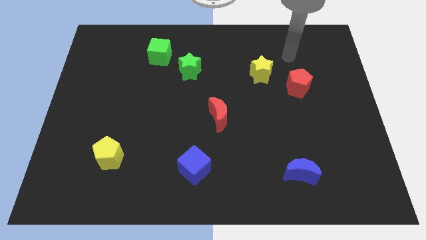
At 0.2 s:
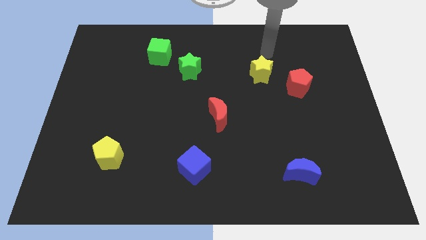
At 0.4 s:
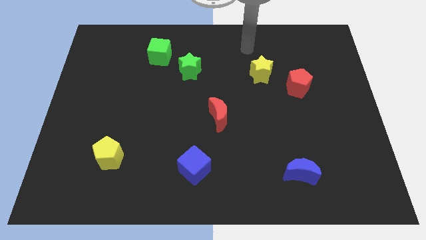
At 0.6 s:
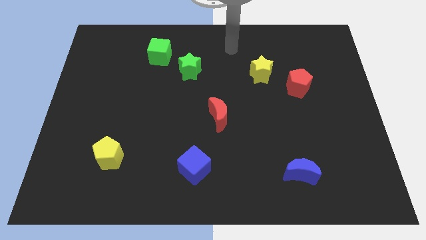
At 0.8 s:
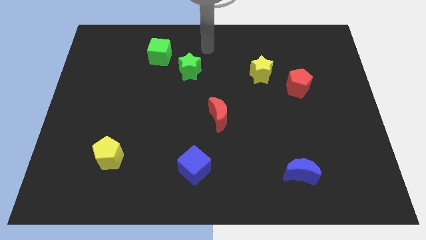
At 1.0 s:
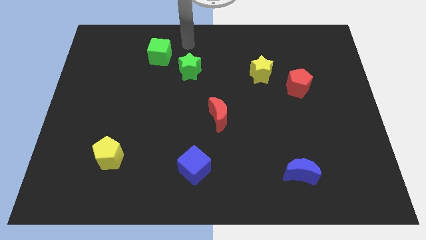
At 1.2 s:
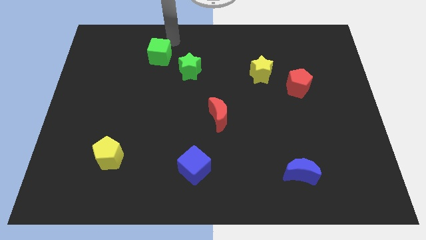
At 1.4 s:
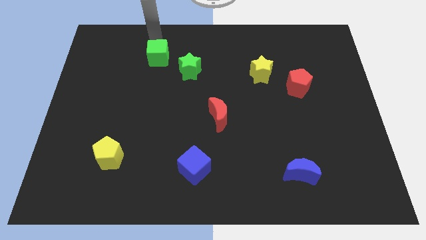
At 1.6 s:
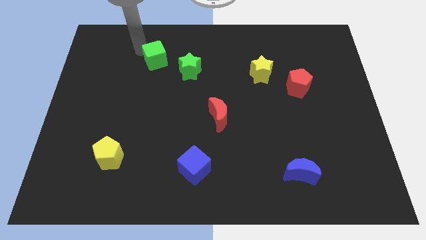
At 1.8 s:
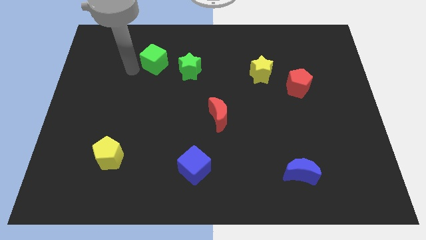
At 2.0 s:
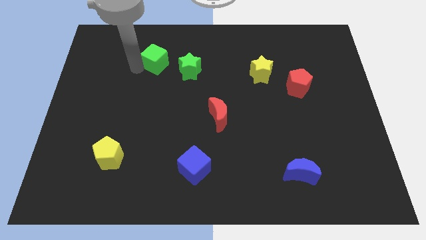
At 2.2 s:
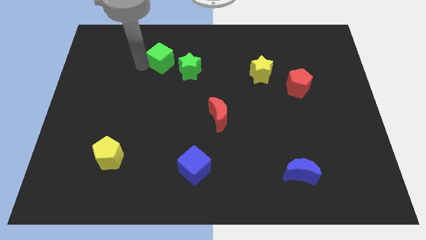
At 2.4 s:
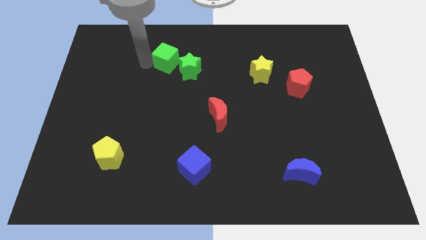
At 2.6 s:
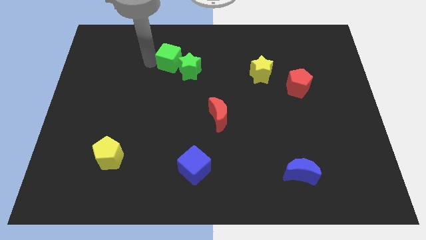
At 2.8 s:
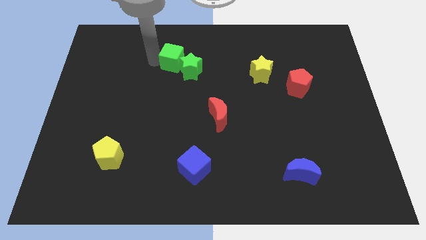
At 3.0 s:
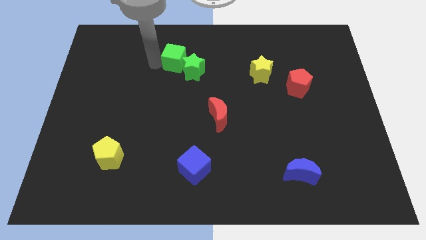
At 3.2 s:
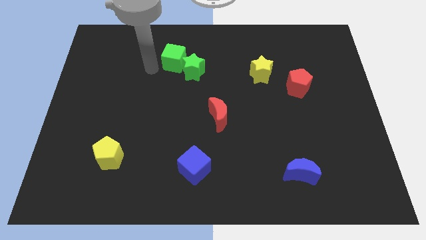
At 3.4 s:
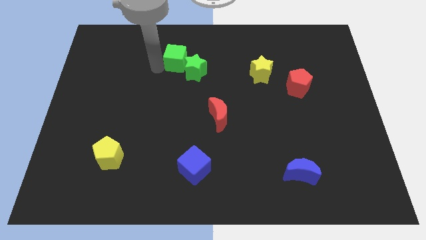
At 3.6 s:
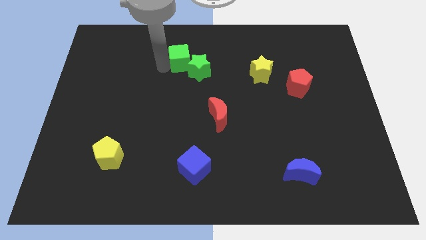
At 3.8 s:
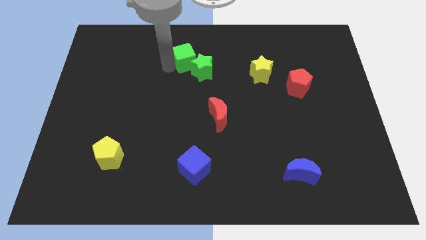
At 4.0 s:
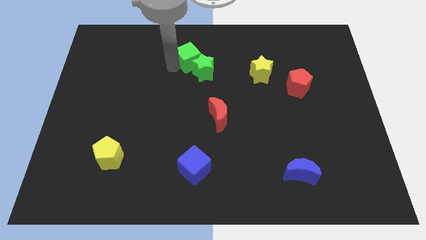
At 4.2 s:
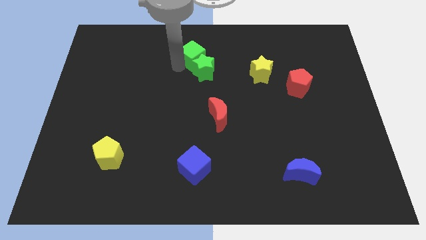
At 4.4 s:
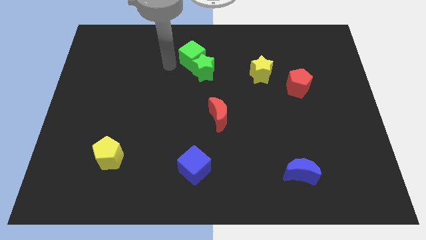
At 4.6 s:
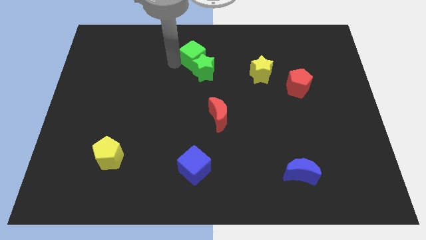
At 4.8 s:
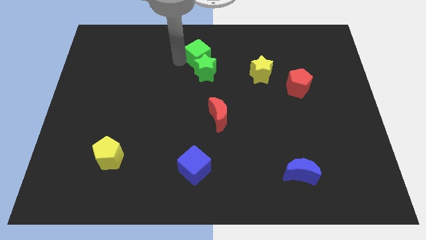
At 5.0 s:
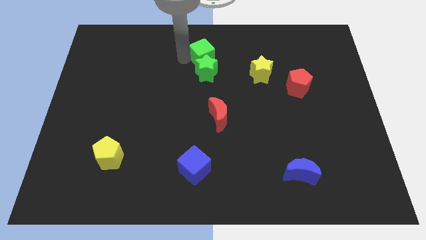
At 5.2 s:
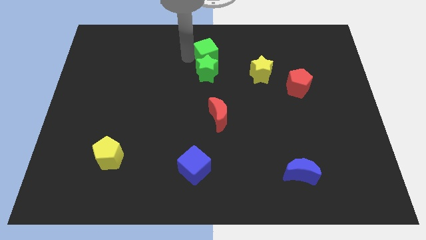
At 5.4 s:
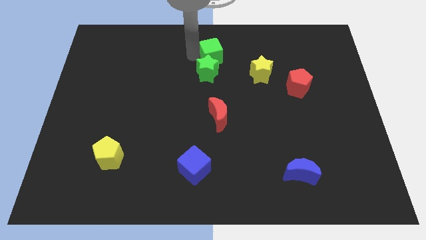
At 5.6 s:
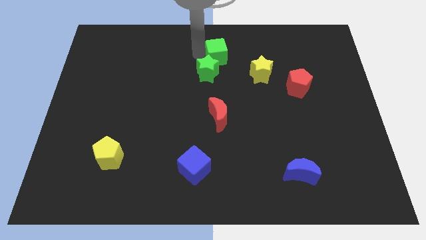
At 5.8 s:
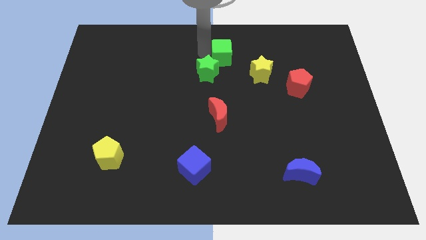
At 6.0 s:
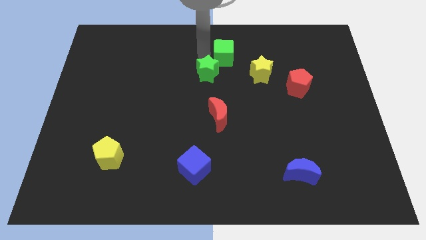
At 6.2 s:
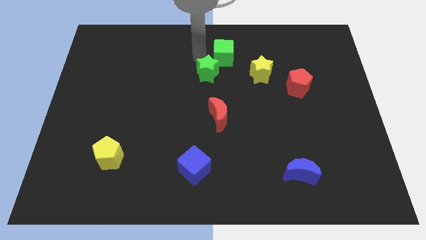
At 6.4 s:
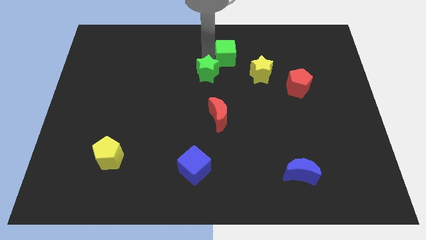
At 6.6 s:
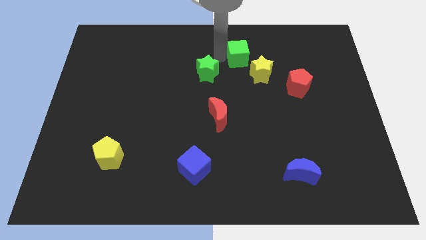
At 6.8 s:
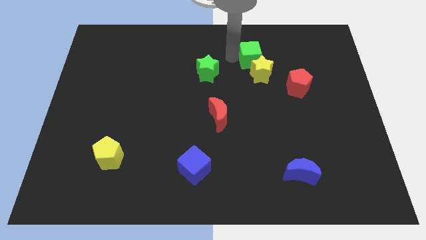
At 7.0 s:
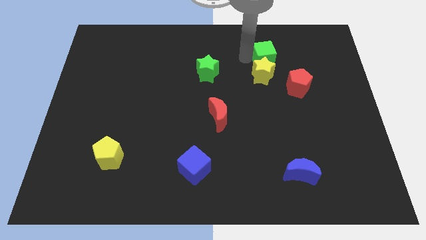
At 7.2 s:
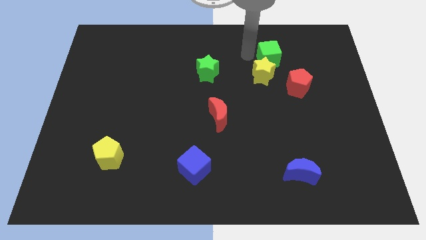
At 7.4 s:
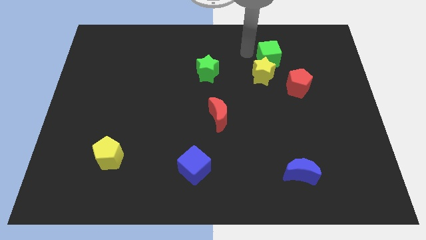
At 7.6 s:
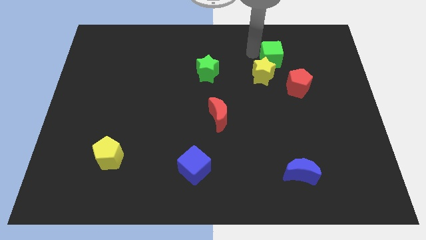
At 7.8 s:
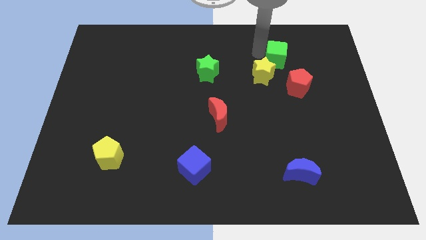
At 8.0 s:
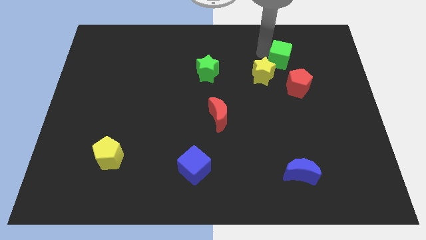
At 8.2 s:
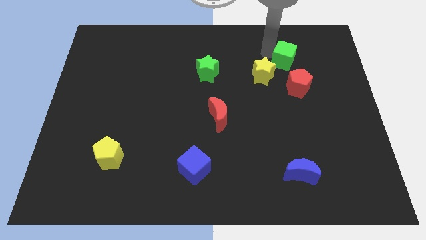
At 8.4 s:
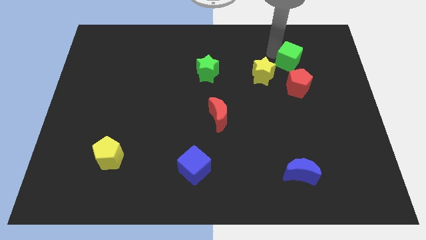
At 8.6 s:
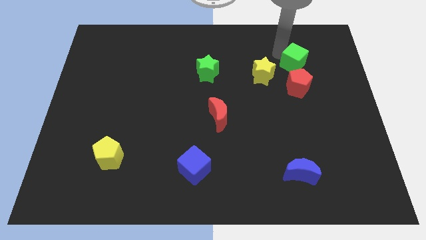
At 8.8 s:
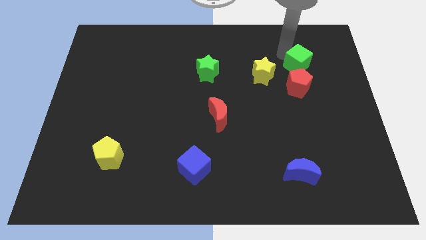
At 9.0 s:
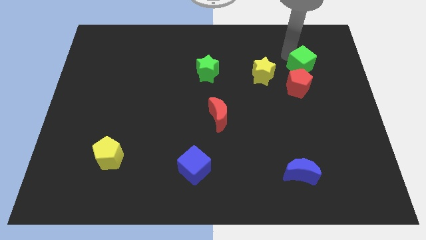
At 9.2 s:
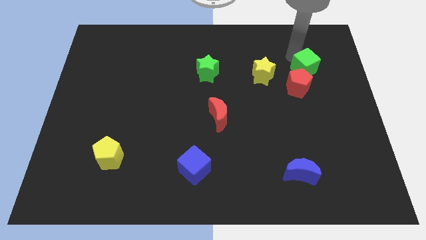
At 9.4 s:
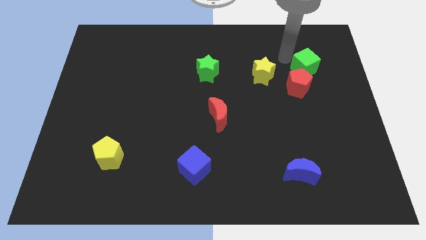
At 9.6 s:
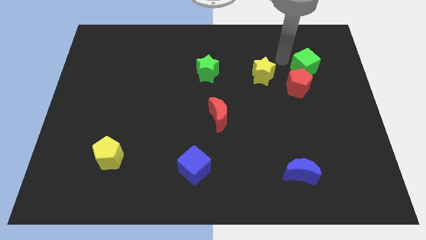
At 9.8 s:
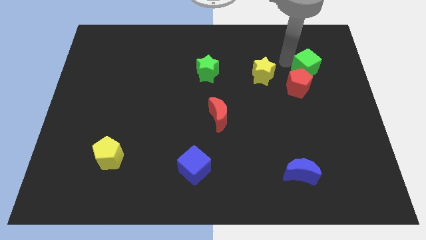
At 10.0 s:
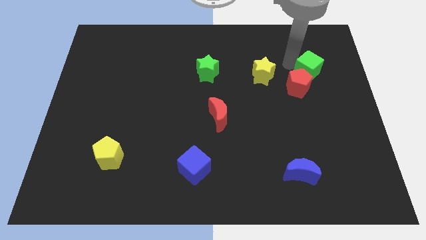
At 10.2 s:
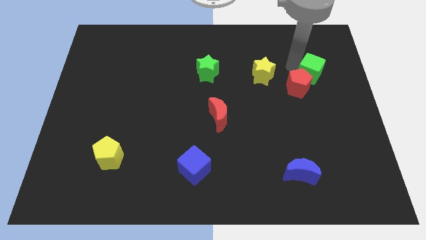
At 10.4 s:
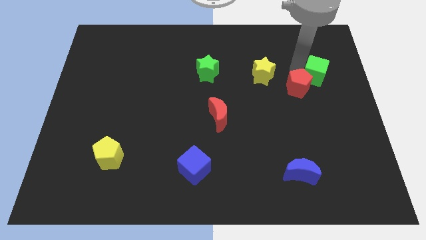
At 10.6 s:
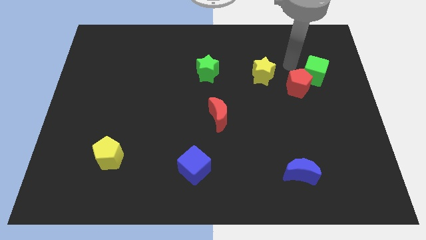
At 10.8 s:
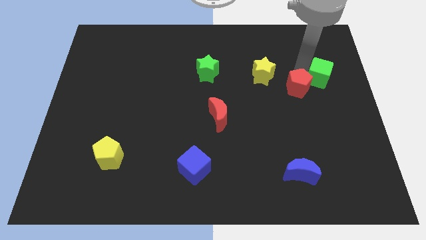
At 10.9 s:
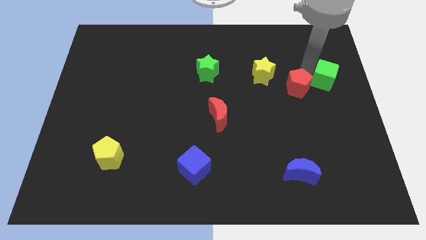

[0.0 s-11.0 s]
move the green cube to the right side

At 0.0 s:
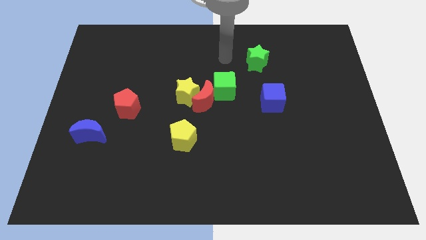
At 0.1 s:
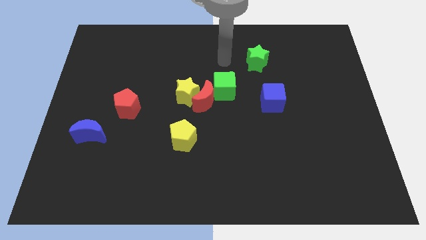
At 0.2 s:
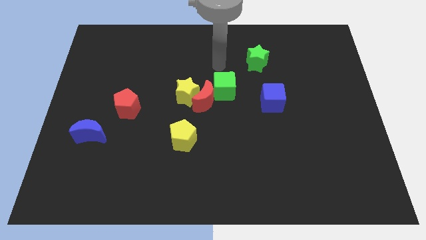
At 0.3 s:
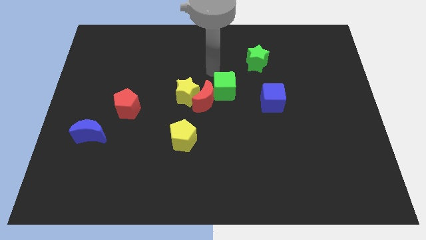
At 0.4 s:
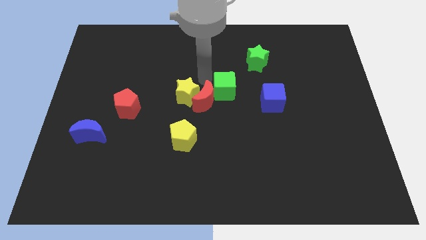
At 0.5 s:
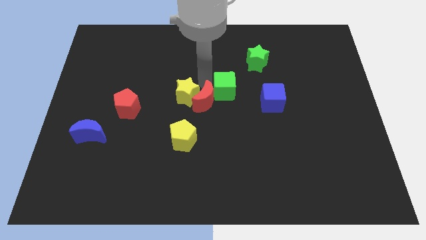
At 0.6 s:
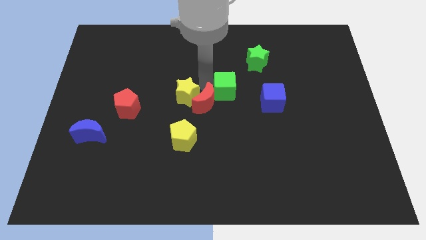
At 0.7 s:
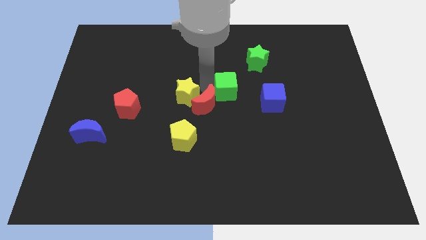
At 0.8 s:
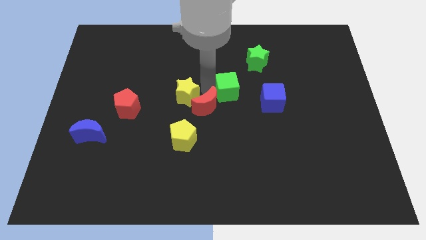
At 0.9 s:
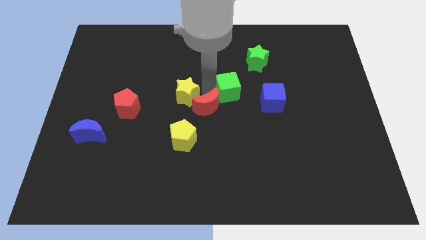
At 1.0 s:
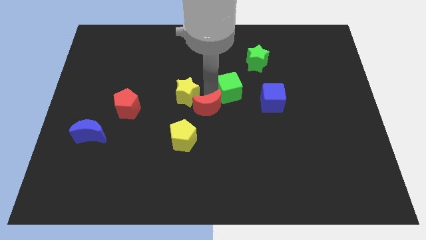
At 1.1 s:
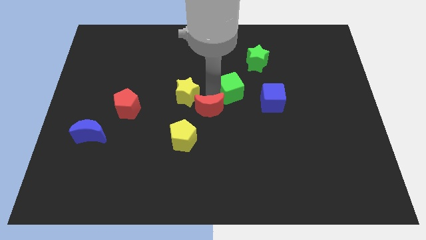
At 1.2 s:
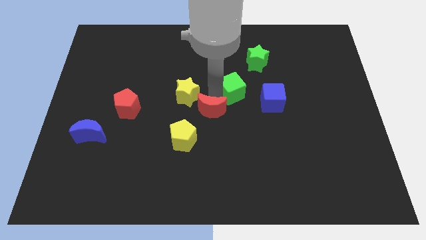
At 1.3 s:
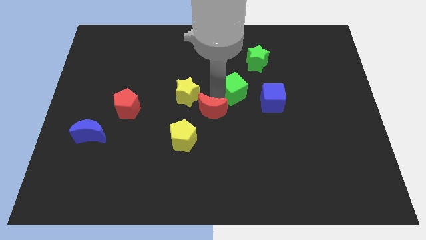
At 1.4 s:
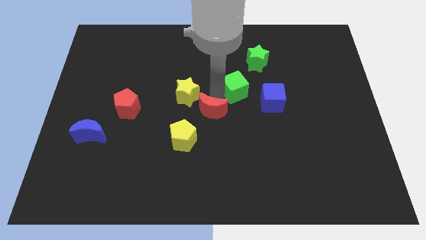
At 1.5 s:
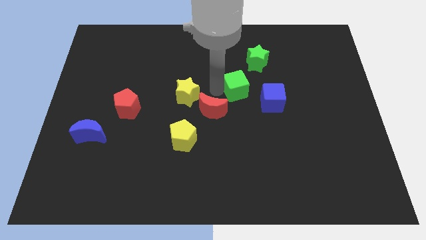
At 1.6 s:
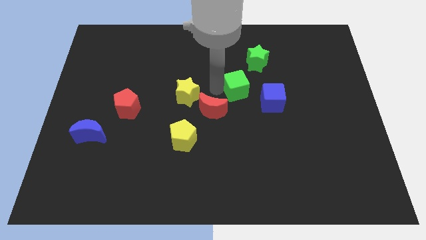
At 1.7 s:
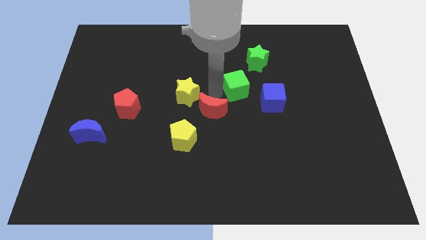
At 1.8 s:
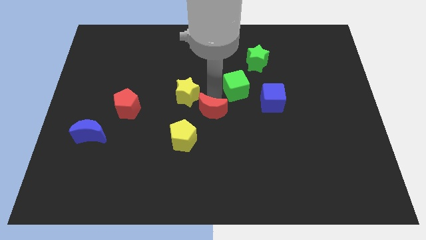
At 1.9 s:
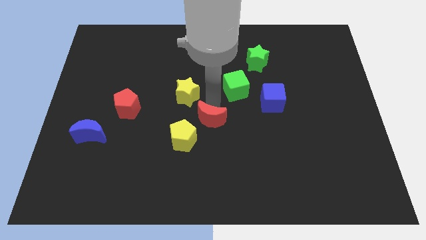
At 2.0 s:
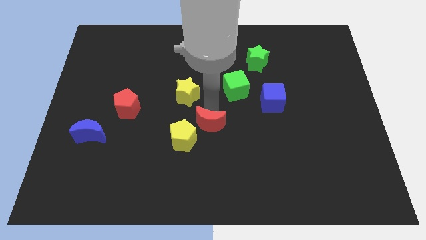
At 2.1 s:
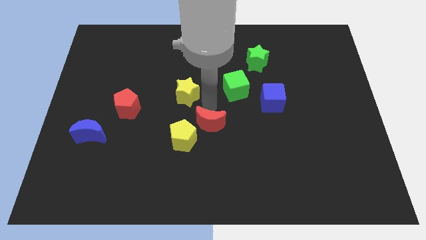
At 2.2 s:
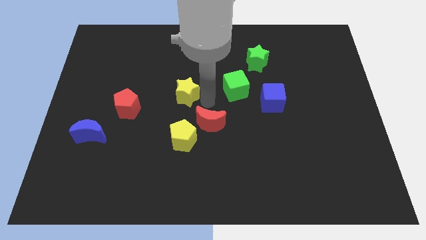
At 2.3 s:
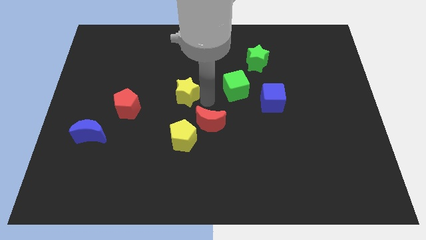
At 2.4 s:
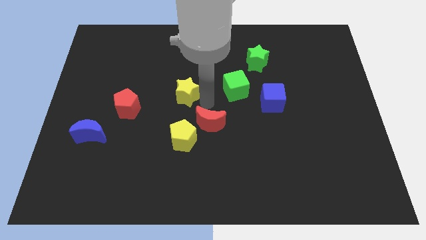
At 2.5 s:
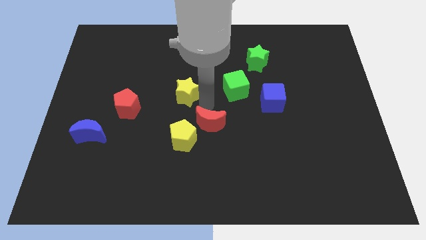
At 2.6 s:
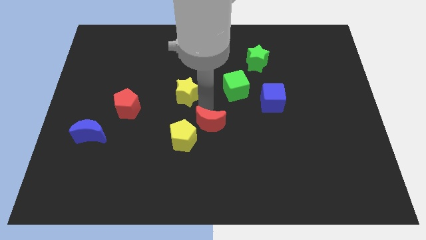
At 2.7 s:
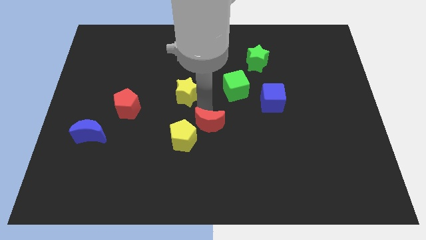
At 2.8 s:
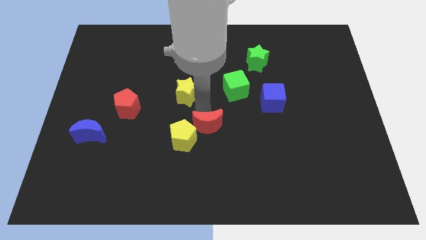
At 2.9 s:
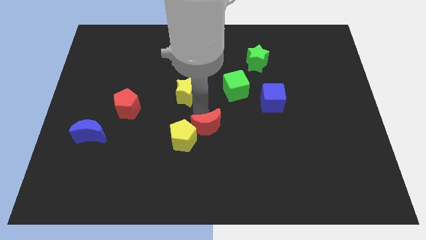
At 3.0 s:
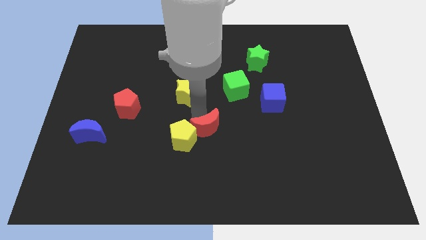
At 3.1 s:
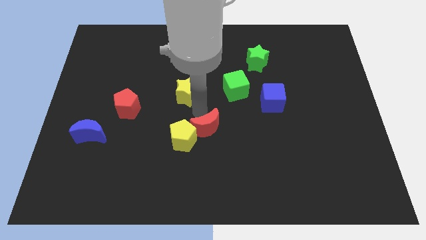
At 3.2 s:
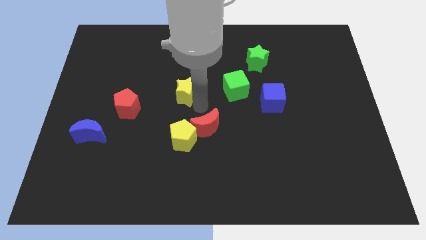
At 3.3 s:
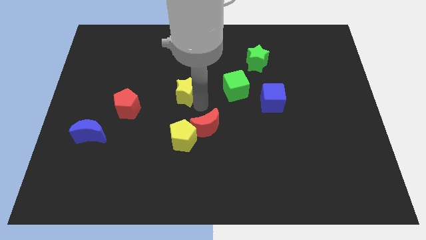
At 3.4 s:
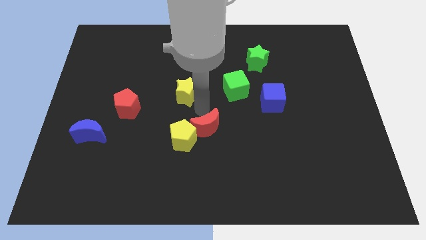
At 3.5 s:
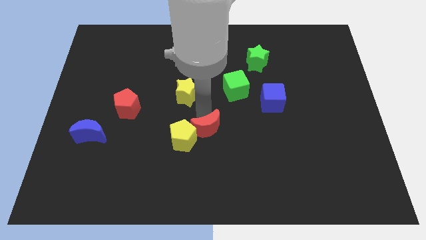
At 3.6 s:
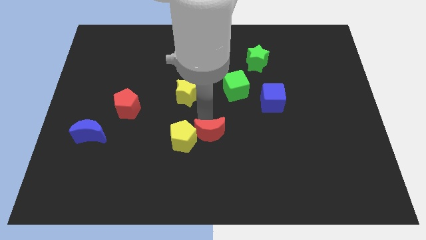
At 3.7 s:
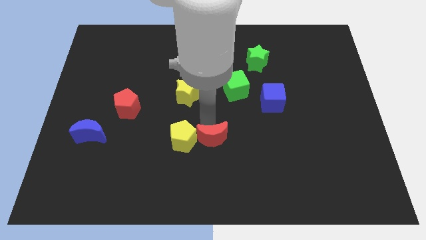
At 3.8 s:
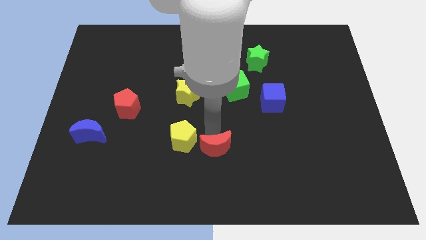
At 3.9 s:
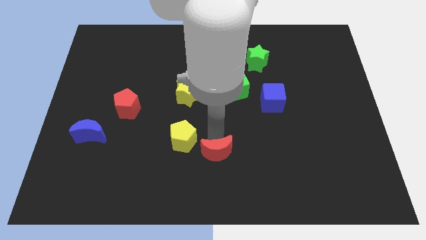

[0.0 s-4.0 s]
put the red moon to the bottom side
